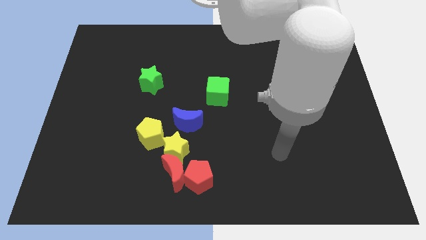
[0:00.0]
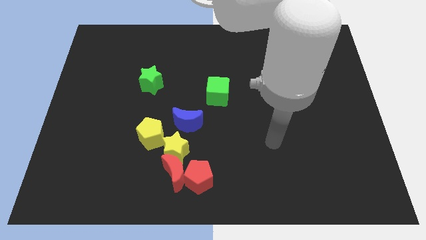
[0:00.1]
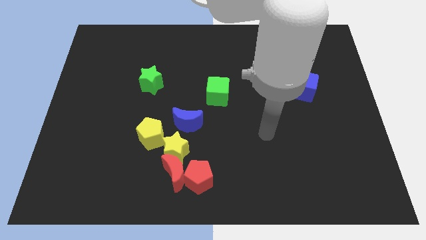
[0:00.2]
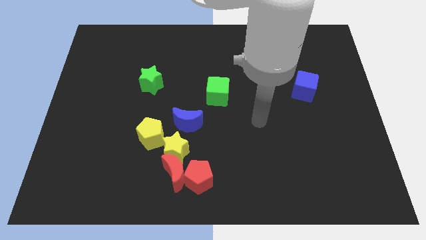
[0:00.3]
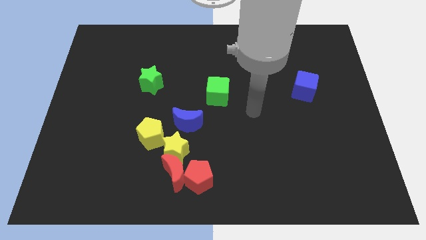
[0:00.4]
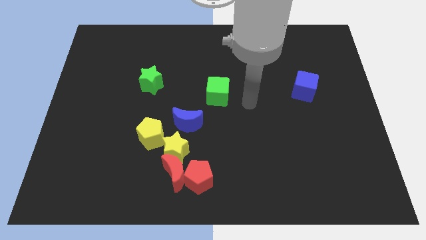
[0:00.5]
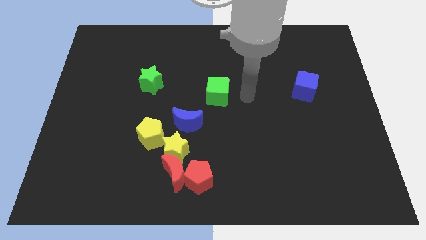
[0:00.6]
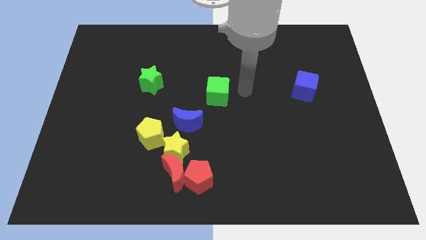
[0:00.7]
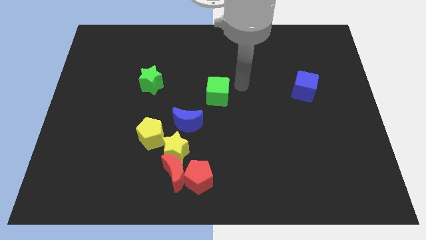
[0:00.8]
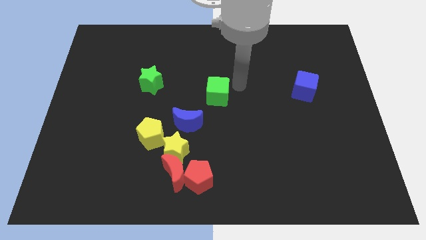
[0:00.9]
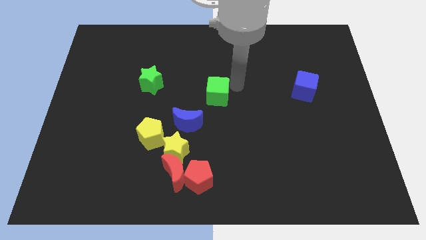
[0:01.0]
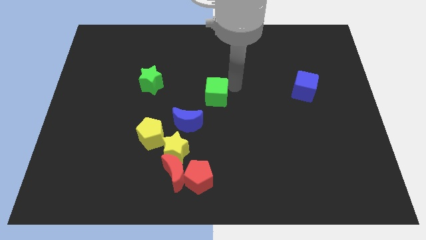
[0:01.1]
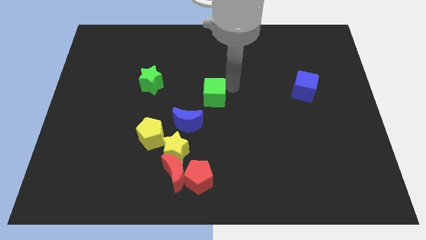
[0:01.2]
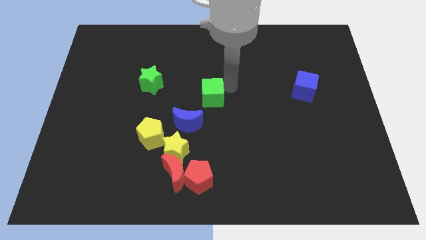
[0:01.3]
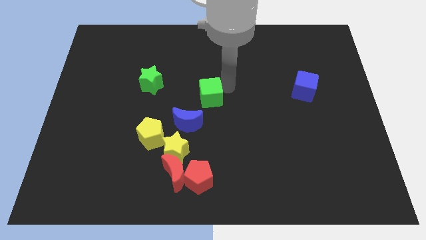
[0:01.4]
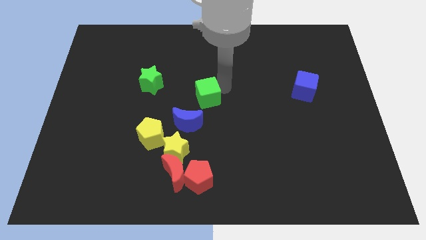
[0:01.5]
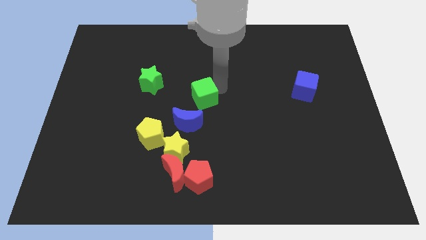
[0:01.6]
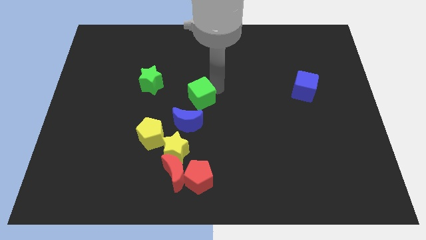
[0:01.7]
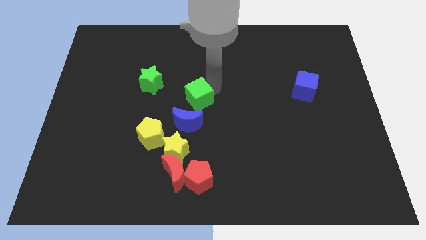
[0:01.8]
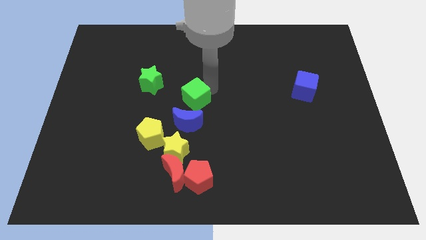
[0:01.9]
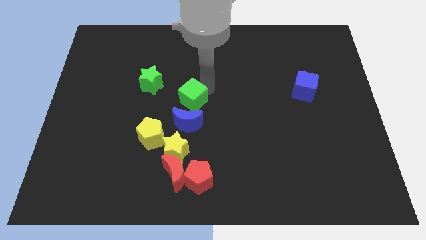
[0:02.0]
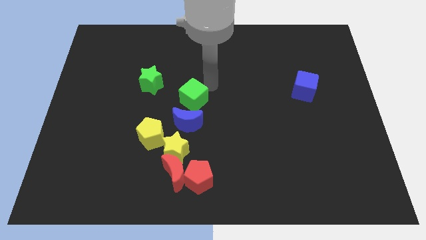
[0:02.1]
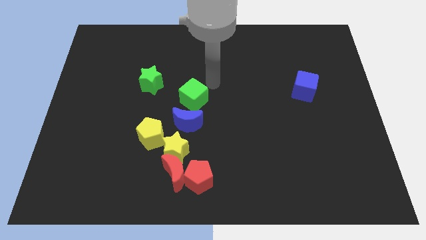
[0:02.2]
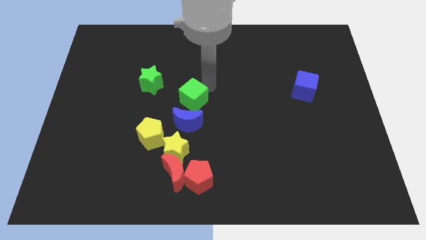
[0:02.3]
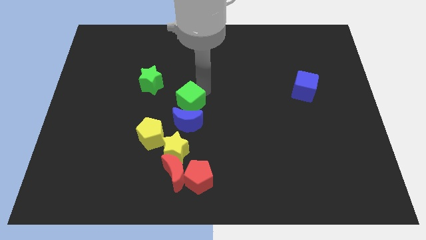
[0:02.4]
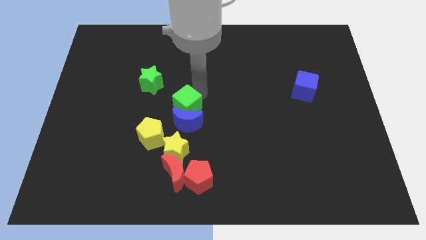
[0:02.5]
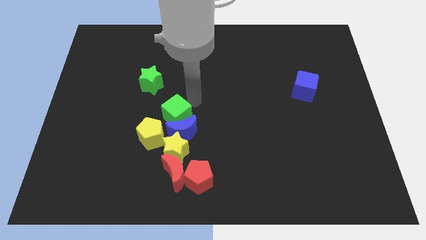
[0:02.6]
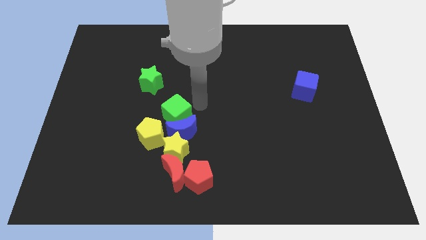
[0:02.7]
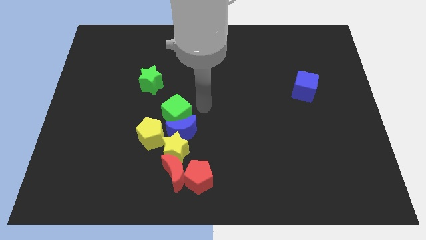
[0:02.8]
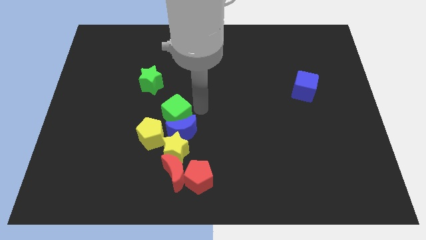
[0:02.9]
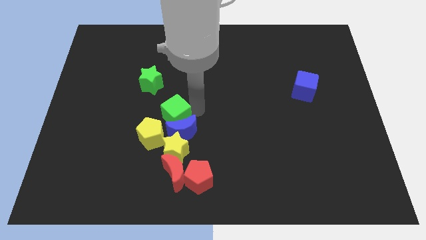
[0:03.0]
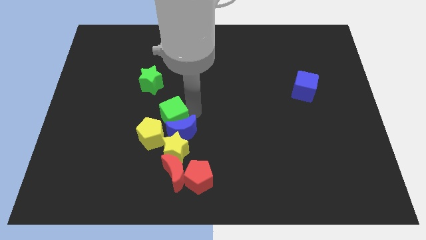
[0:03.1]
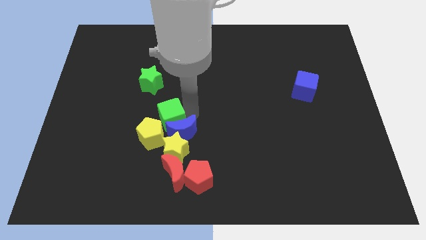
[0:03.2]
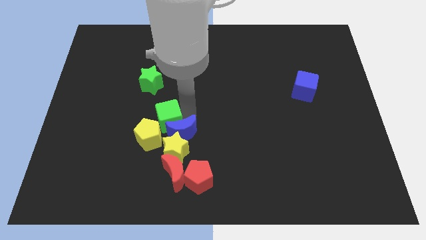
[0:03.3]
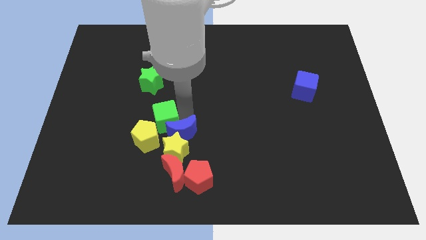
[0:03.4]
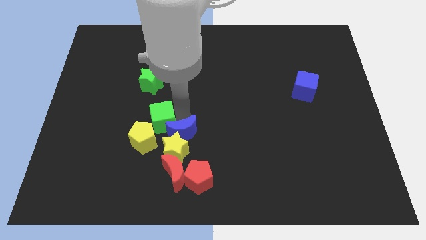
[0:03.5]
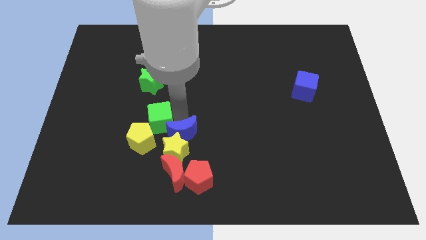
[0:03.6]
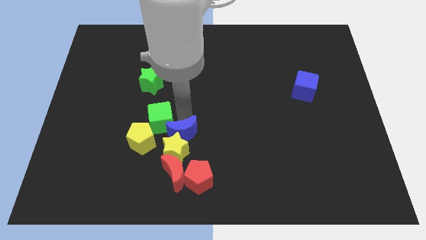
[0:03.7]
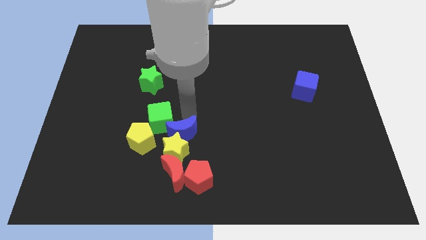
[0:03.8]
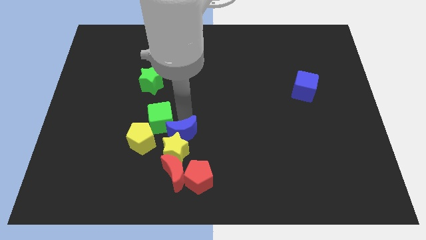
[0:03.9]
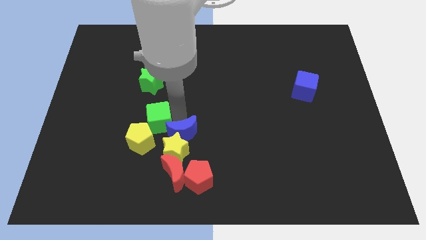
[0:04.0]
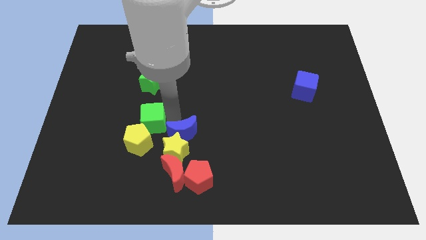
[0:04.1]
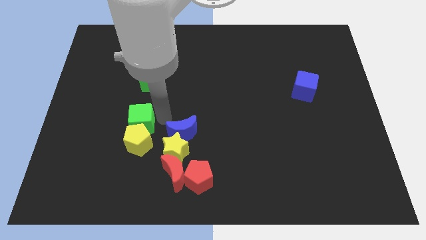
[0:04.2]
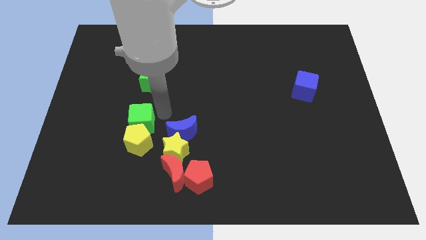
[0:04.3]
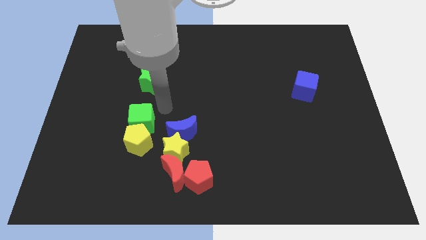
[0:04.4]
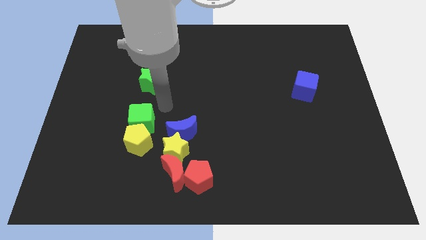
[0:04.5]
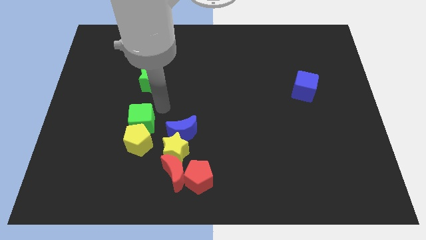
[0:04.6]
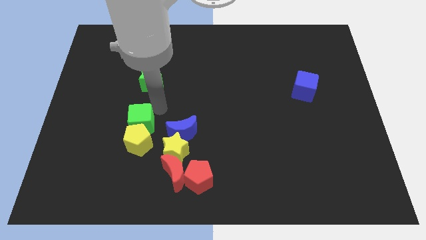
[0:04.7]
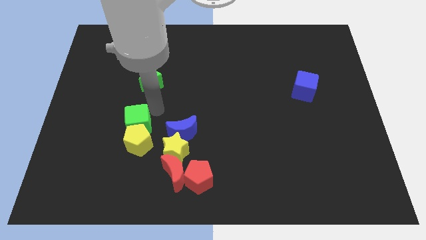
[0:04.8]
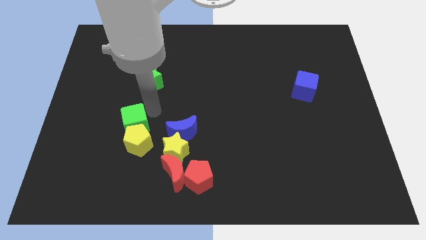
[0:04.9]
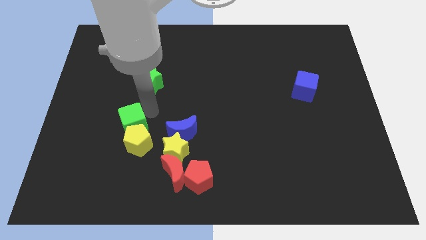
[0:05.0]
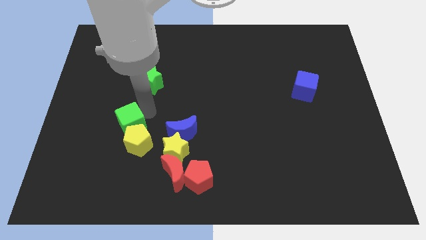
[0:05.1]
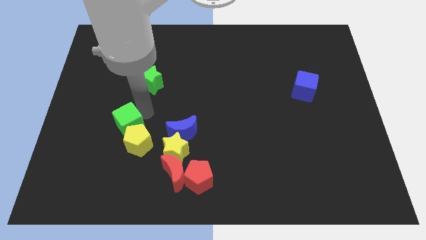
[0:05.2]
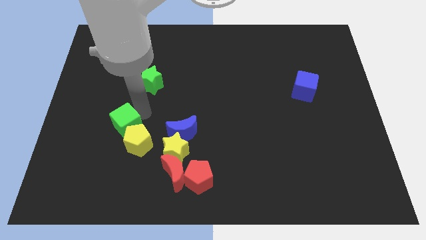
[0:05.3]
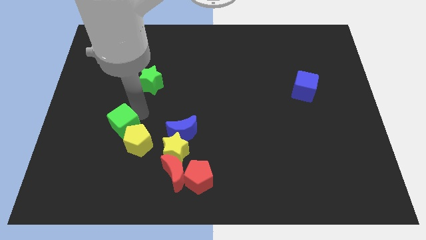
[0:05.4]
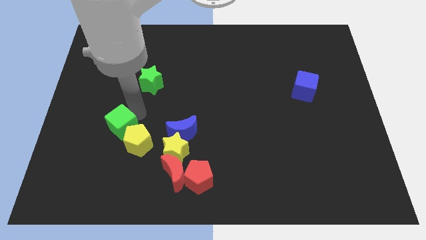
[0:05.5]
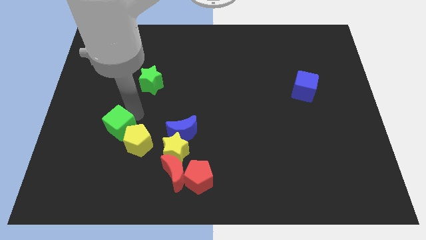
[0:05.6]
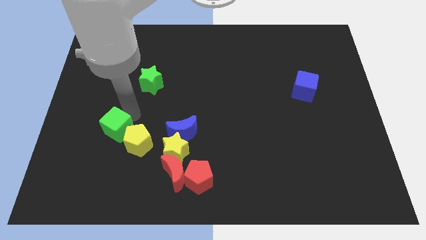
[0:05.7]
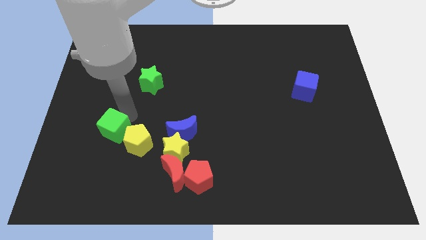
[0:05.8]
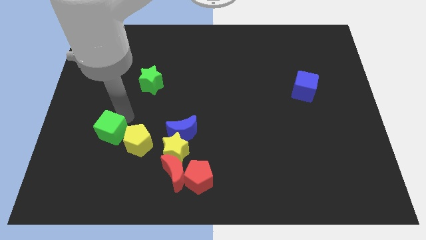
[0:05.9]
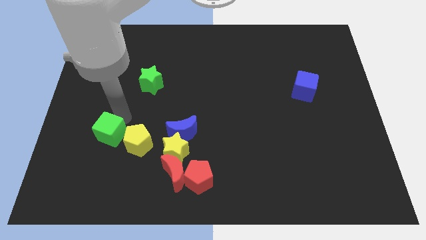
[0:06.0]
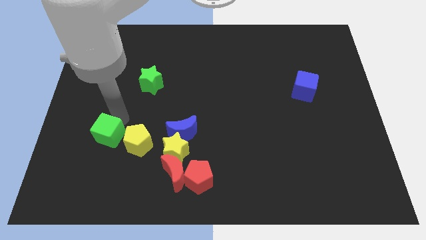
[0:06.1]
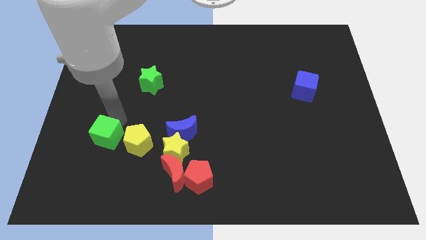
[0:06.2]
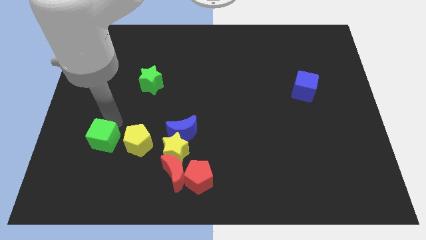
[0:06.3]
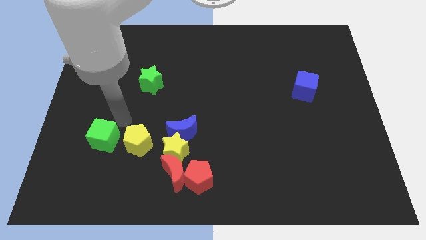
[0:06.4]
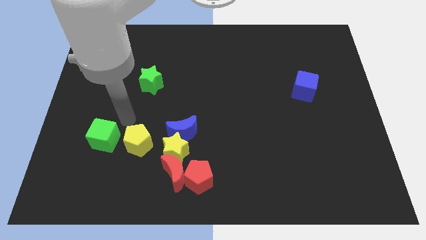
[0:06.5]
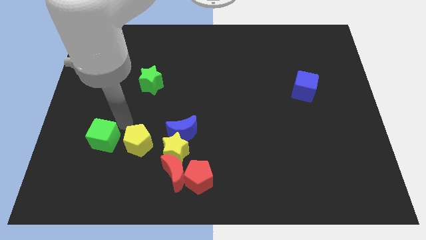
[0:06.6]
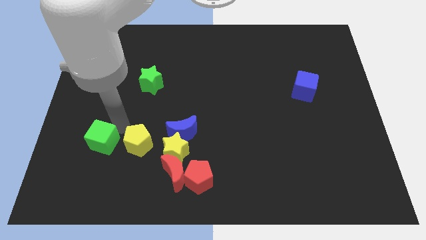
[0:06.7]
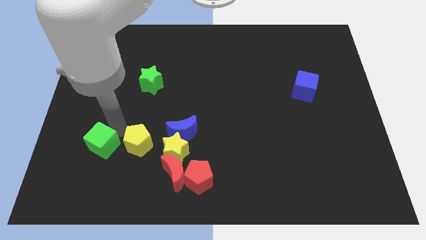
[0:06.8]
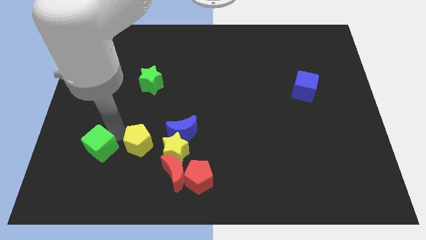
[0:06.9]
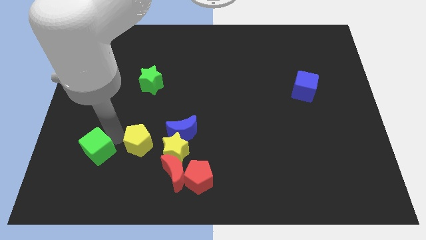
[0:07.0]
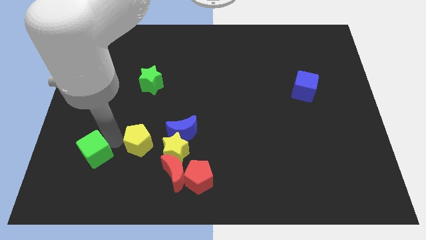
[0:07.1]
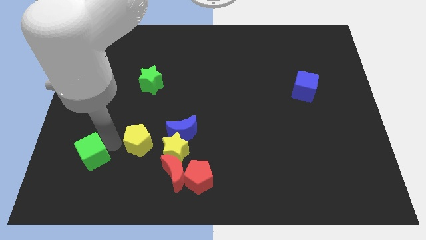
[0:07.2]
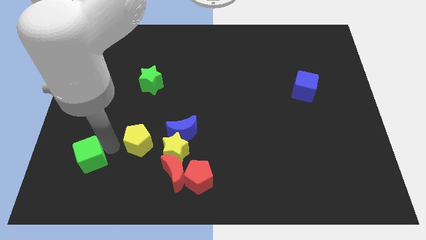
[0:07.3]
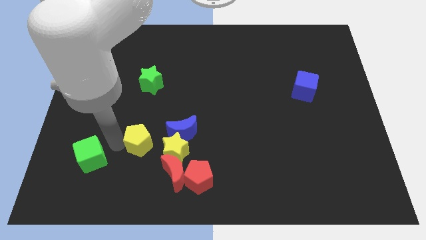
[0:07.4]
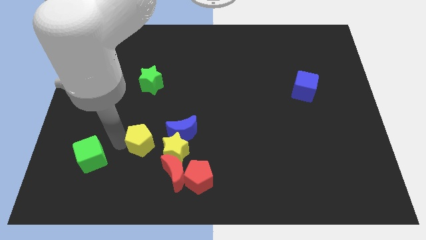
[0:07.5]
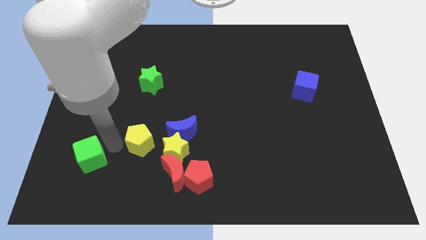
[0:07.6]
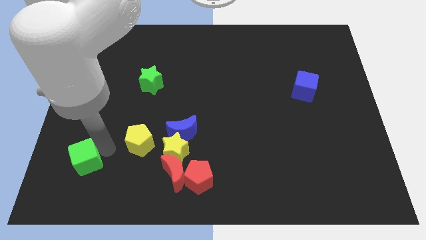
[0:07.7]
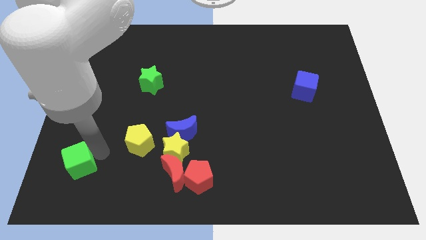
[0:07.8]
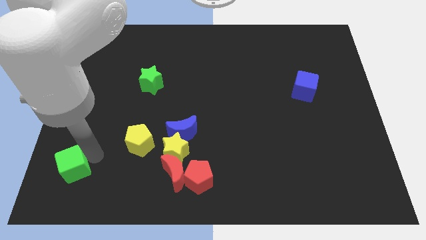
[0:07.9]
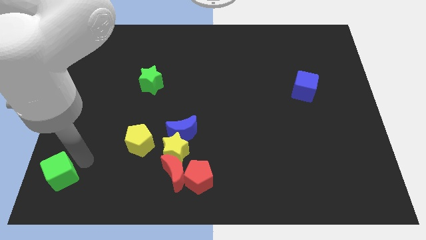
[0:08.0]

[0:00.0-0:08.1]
push the green cube to the lower left corner
